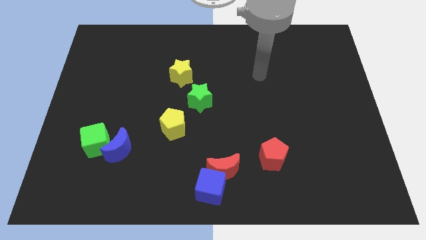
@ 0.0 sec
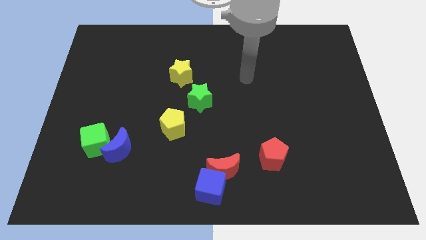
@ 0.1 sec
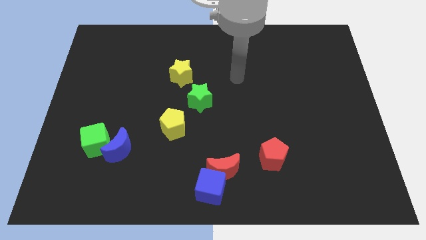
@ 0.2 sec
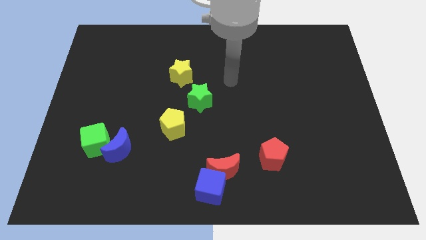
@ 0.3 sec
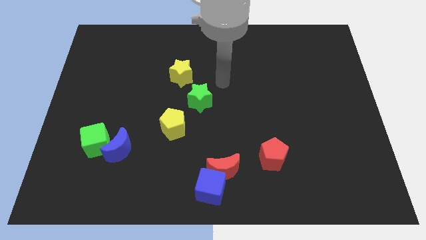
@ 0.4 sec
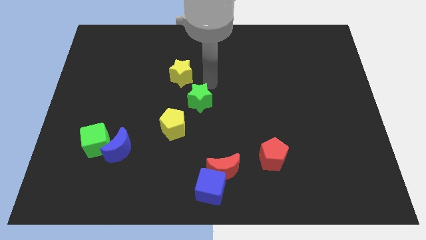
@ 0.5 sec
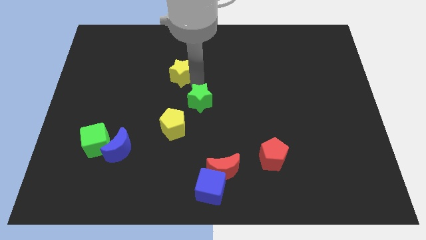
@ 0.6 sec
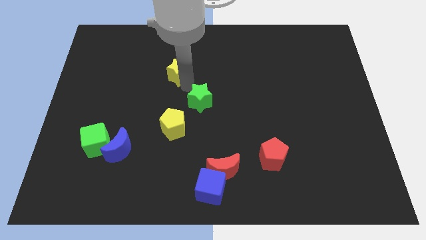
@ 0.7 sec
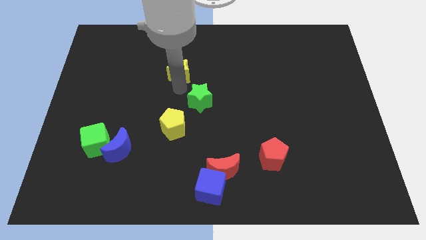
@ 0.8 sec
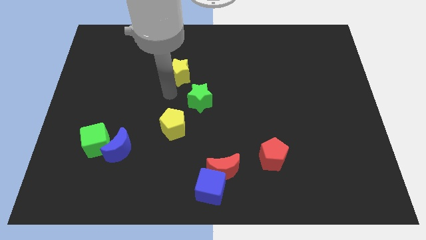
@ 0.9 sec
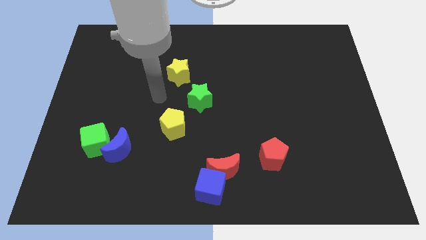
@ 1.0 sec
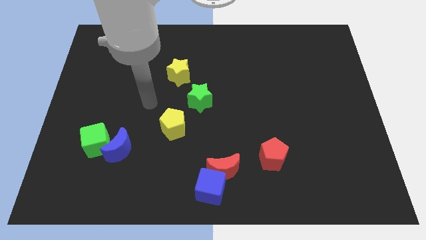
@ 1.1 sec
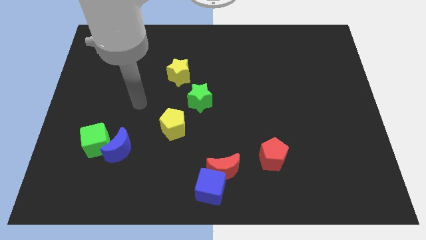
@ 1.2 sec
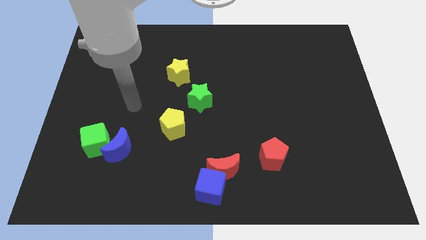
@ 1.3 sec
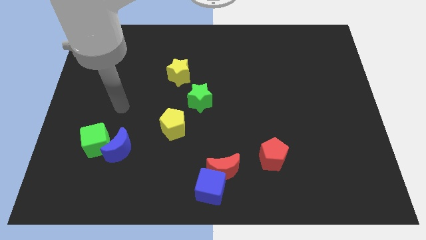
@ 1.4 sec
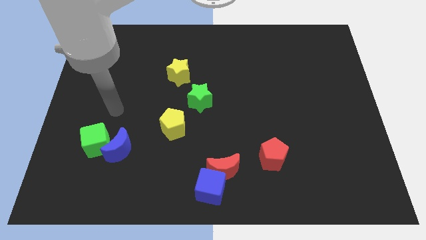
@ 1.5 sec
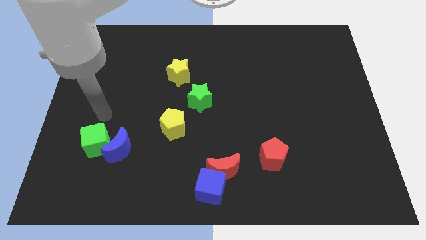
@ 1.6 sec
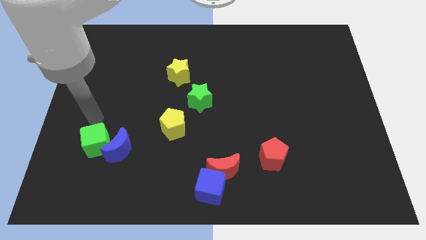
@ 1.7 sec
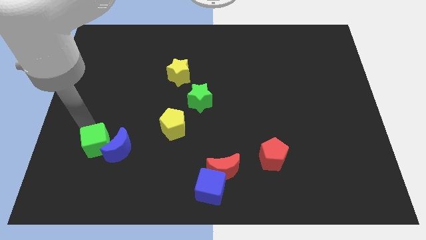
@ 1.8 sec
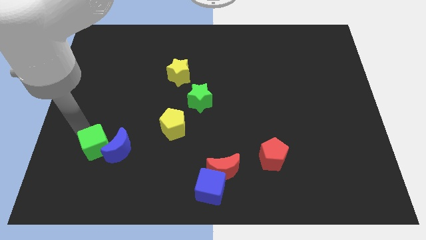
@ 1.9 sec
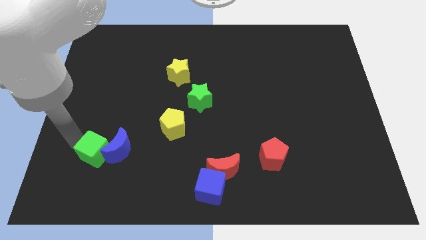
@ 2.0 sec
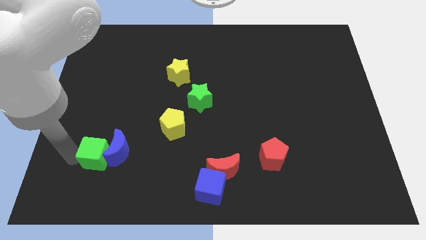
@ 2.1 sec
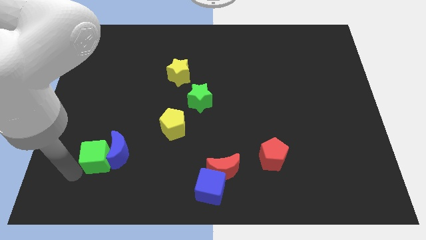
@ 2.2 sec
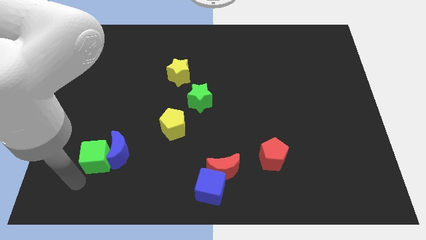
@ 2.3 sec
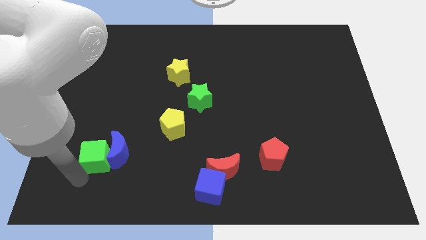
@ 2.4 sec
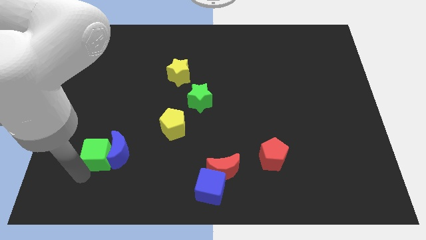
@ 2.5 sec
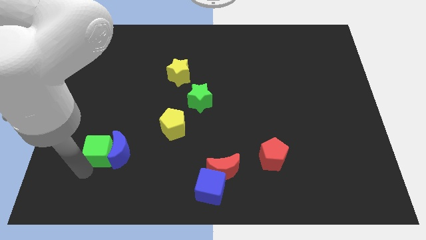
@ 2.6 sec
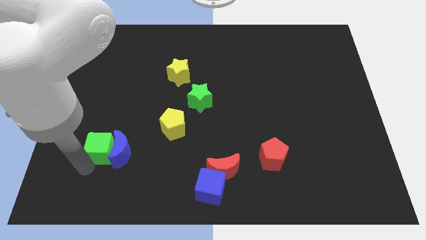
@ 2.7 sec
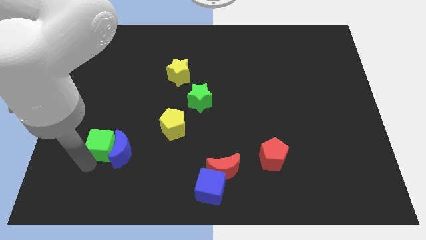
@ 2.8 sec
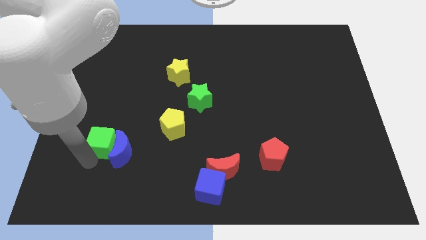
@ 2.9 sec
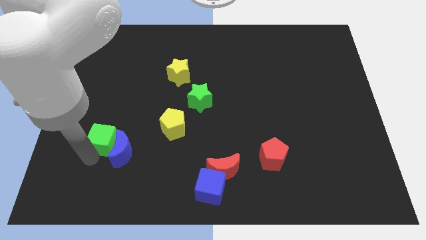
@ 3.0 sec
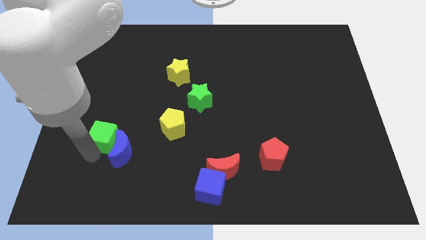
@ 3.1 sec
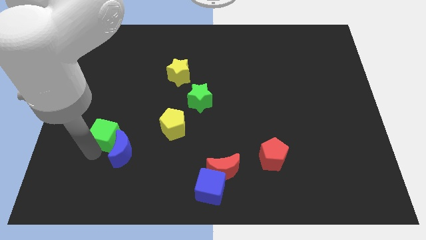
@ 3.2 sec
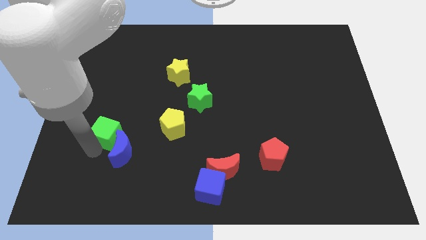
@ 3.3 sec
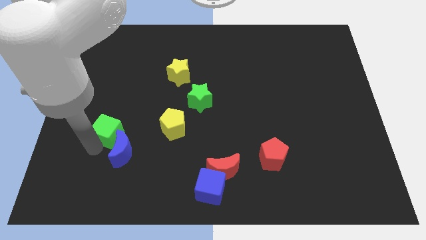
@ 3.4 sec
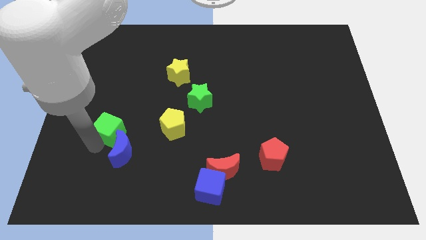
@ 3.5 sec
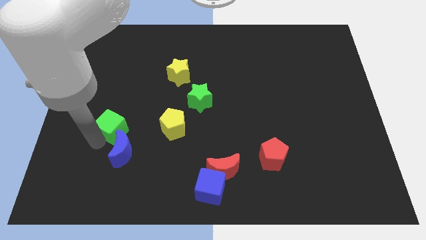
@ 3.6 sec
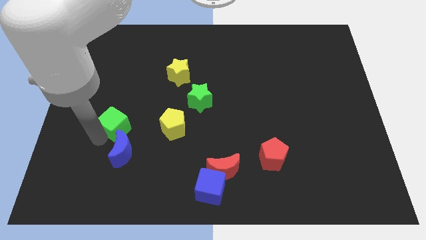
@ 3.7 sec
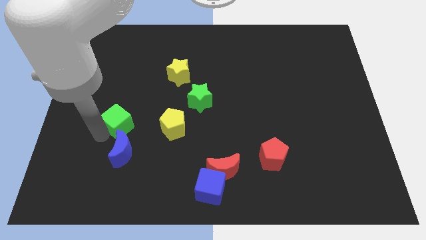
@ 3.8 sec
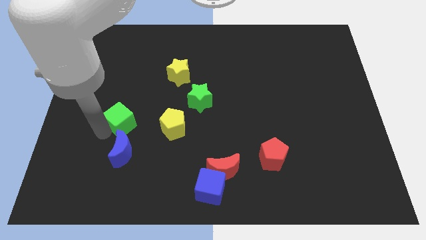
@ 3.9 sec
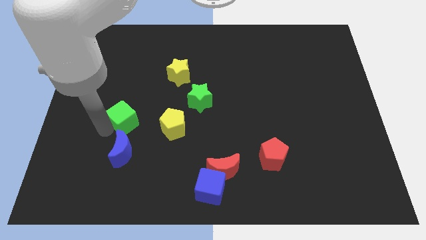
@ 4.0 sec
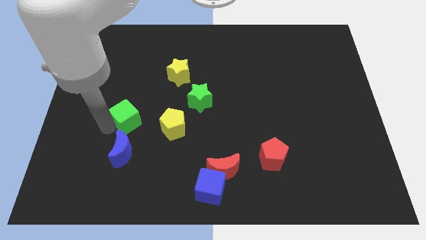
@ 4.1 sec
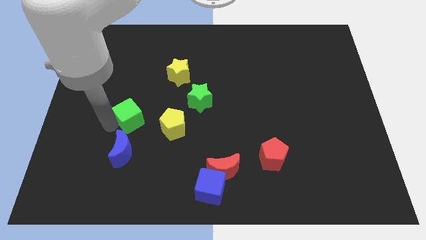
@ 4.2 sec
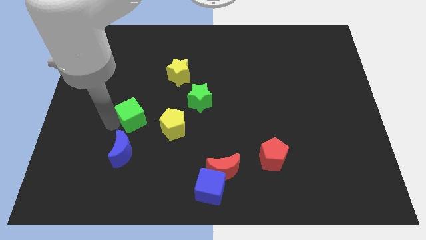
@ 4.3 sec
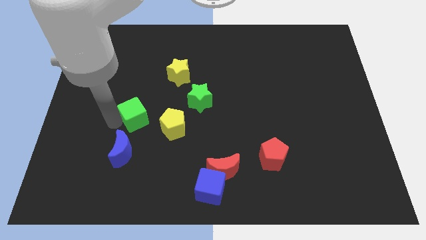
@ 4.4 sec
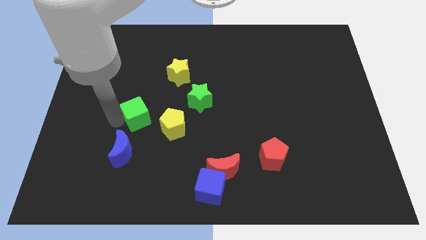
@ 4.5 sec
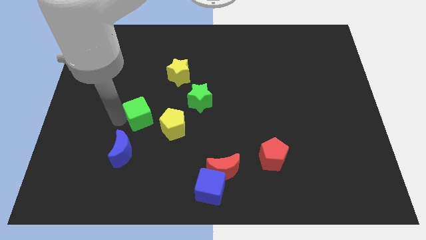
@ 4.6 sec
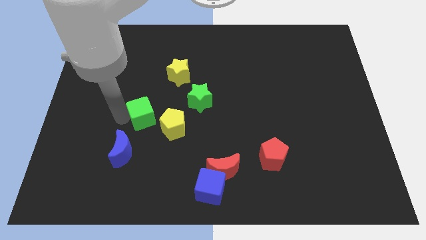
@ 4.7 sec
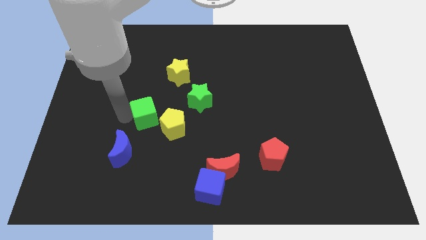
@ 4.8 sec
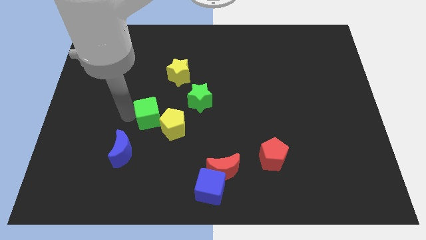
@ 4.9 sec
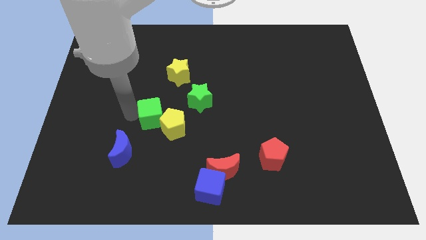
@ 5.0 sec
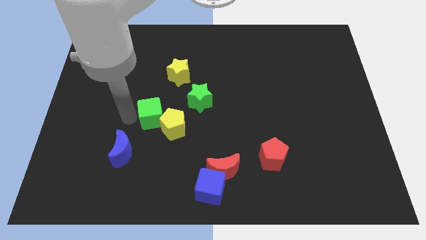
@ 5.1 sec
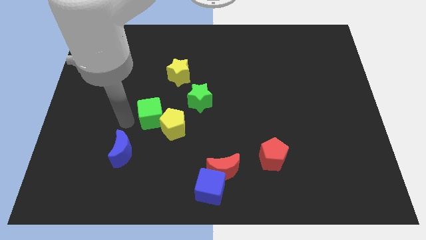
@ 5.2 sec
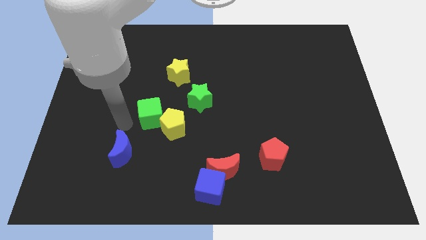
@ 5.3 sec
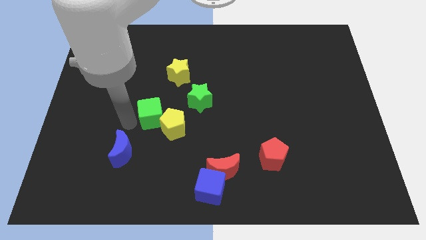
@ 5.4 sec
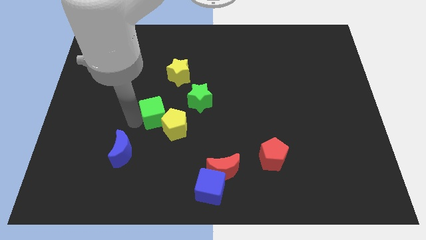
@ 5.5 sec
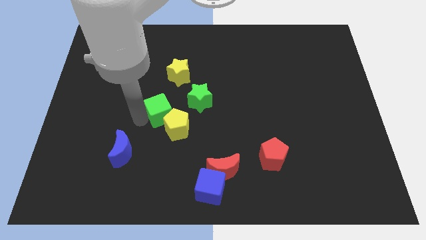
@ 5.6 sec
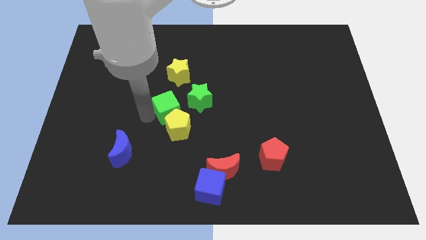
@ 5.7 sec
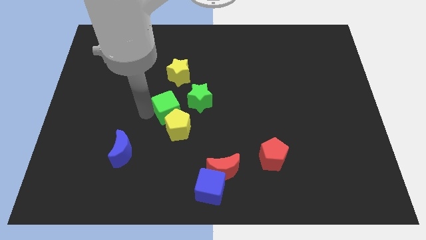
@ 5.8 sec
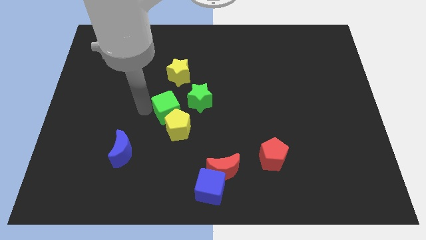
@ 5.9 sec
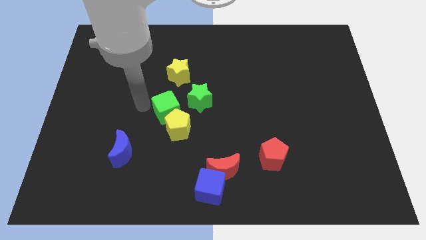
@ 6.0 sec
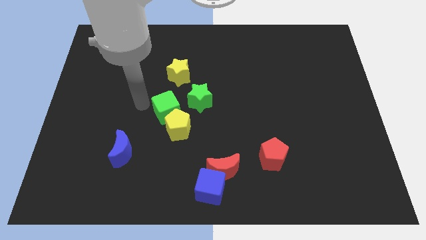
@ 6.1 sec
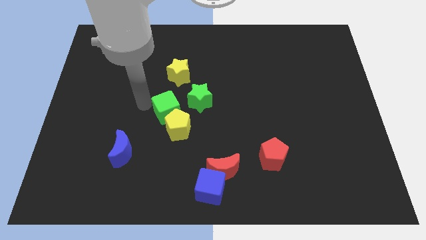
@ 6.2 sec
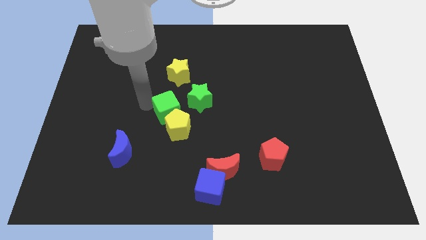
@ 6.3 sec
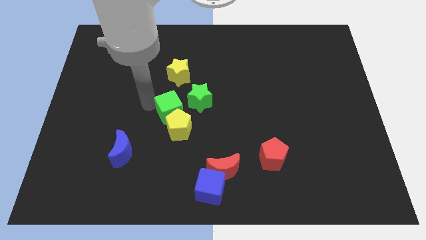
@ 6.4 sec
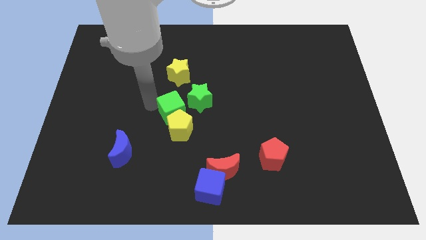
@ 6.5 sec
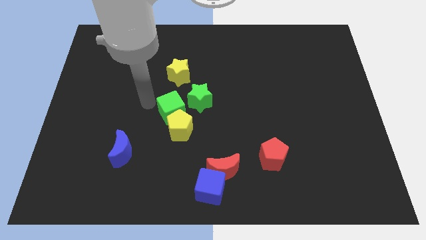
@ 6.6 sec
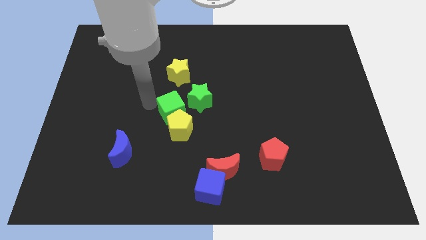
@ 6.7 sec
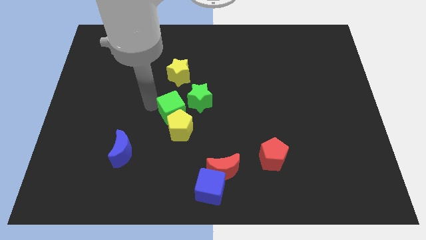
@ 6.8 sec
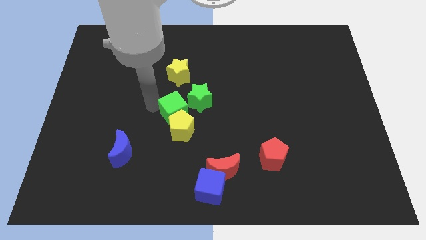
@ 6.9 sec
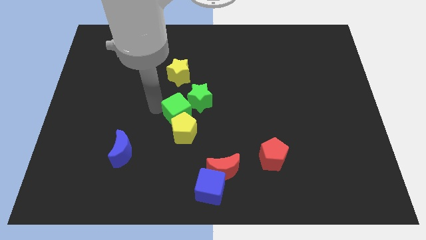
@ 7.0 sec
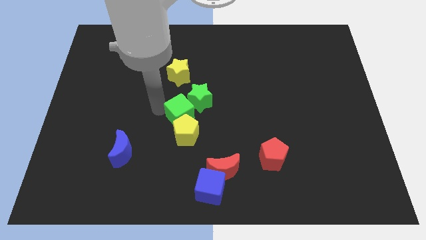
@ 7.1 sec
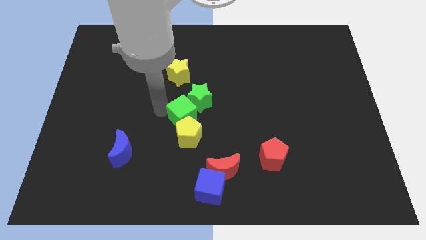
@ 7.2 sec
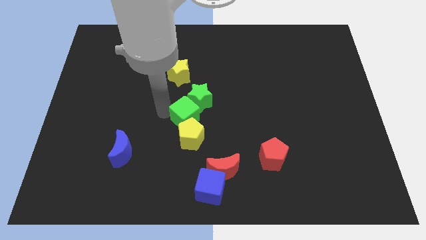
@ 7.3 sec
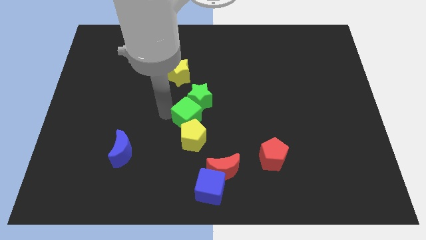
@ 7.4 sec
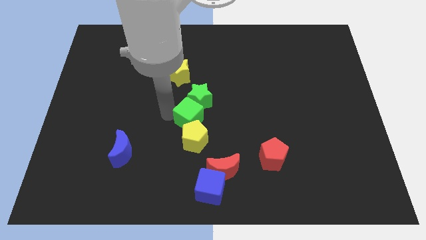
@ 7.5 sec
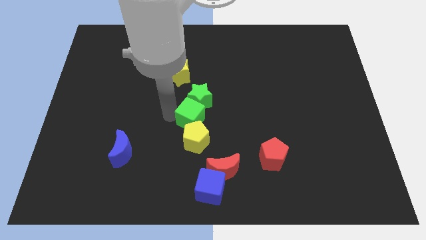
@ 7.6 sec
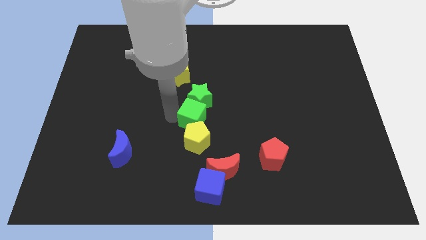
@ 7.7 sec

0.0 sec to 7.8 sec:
slide the green cube to the bottom right of the green star

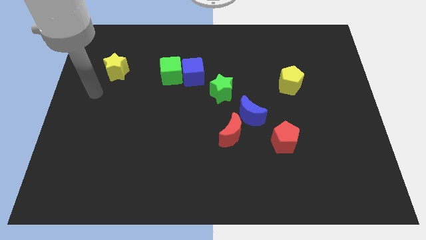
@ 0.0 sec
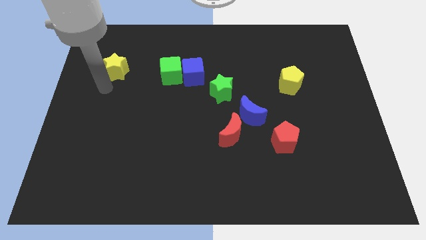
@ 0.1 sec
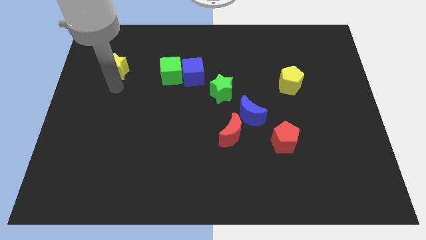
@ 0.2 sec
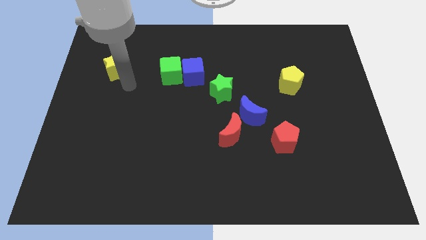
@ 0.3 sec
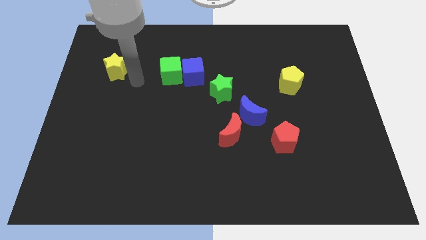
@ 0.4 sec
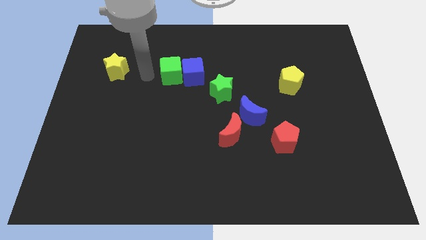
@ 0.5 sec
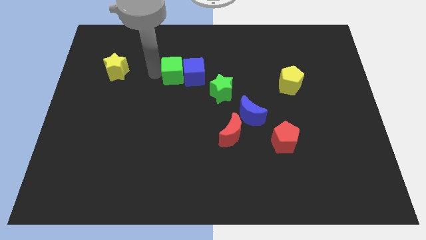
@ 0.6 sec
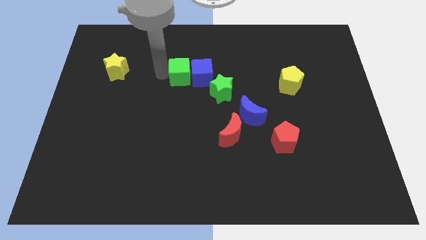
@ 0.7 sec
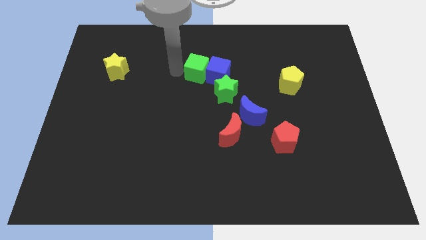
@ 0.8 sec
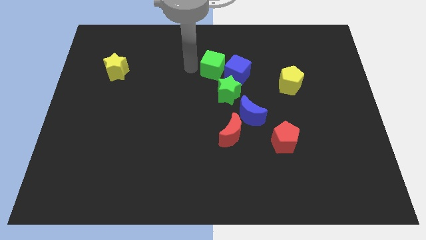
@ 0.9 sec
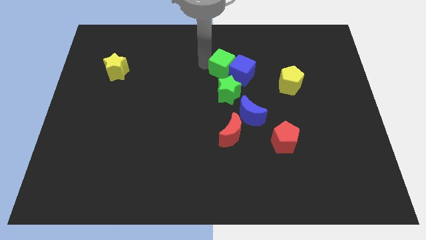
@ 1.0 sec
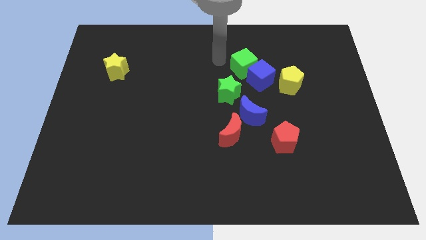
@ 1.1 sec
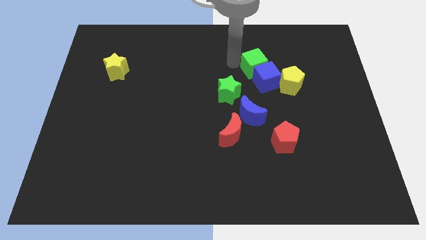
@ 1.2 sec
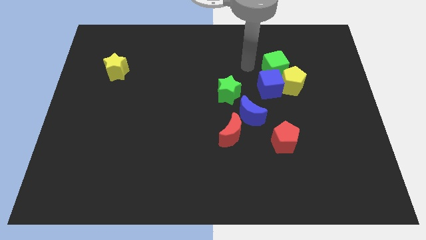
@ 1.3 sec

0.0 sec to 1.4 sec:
move the blue cube to the top side of the red pentagon
